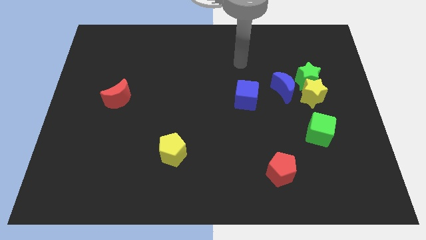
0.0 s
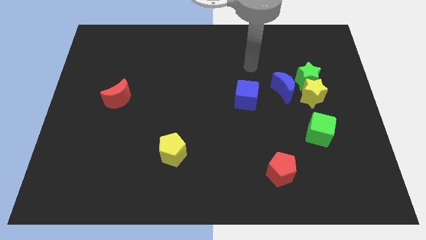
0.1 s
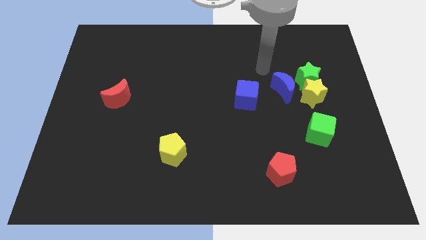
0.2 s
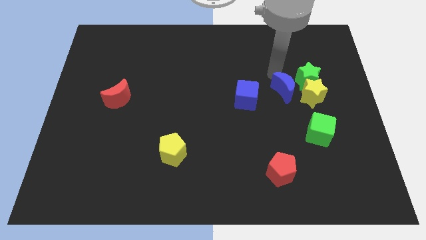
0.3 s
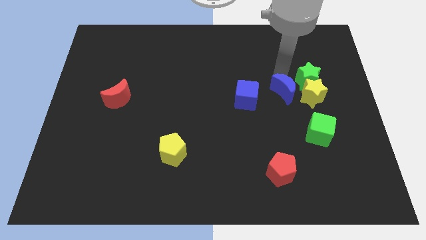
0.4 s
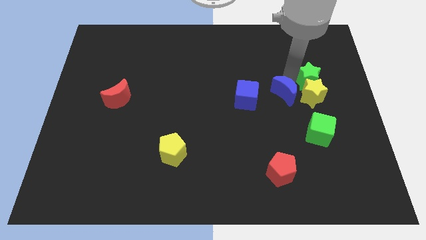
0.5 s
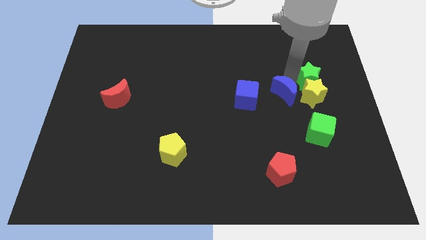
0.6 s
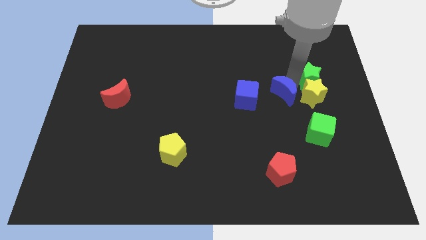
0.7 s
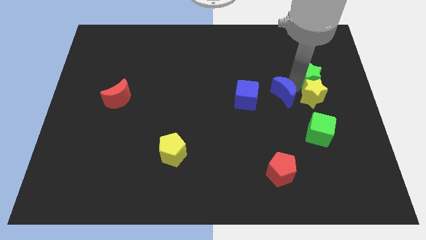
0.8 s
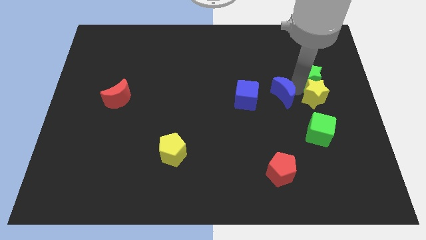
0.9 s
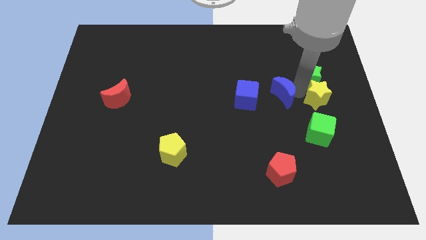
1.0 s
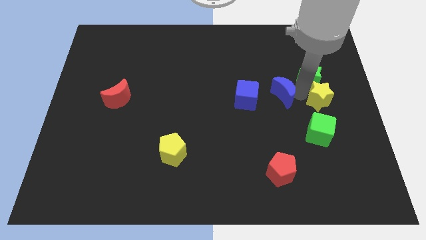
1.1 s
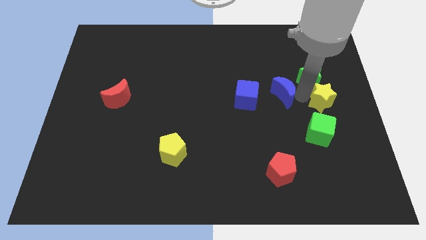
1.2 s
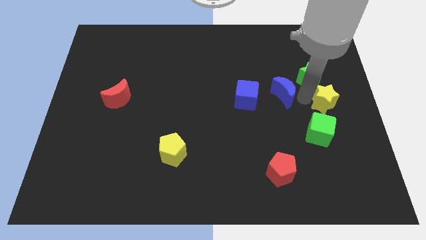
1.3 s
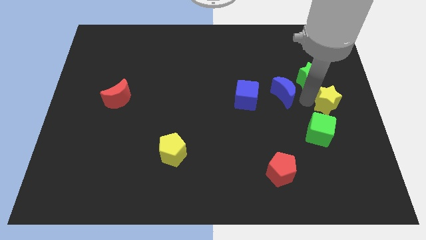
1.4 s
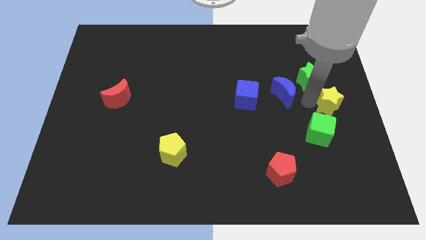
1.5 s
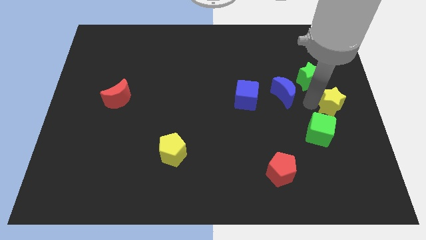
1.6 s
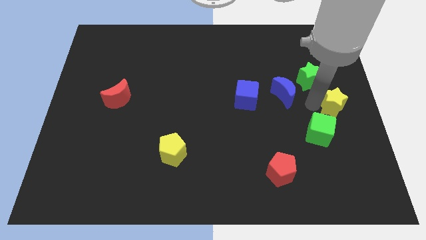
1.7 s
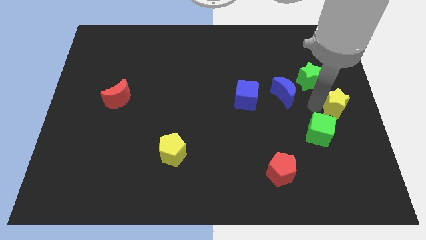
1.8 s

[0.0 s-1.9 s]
move the yellow star away from the green star and blue moon

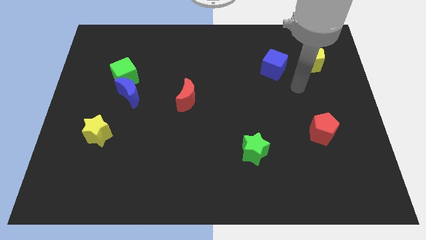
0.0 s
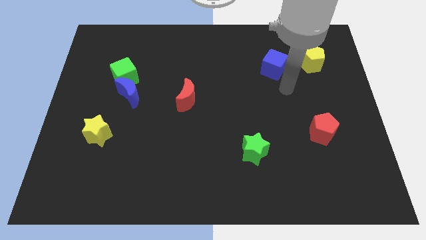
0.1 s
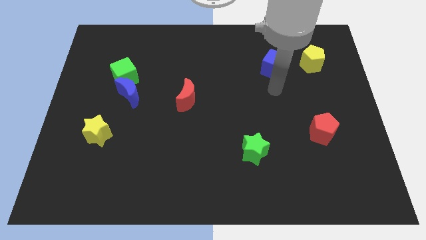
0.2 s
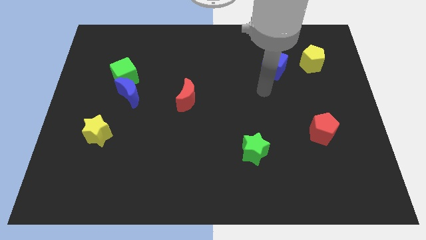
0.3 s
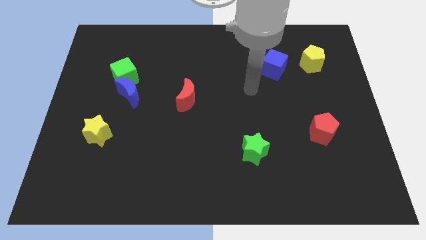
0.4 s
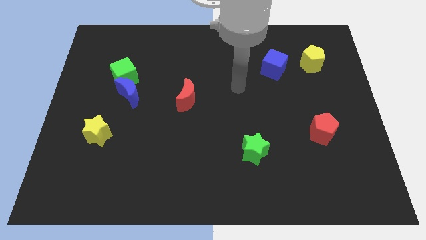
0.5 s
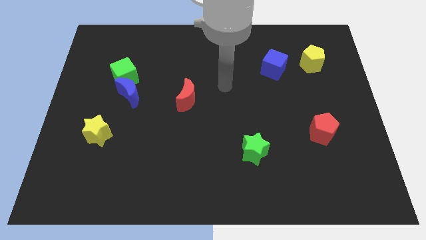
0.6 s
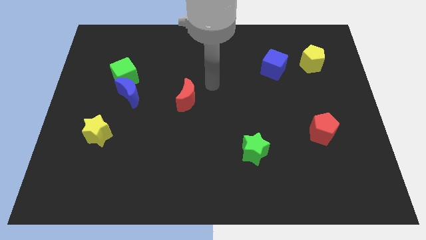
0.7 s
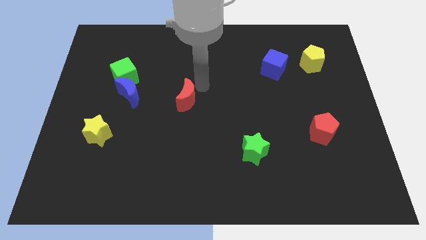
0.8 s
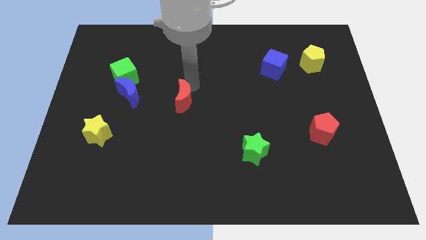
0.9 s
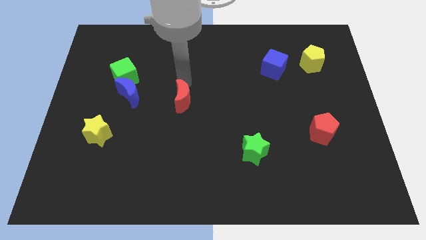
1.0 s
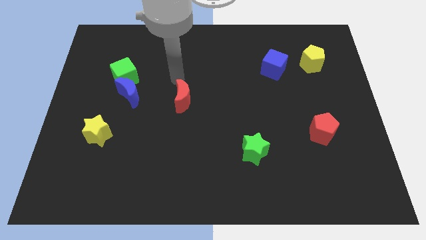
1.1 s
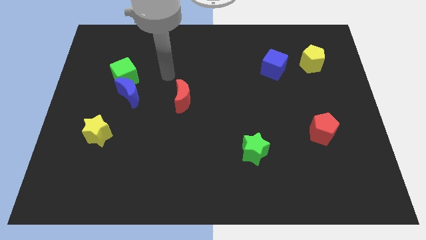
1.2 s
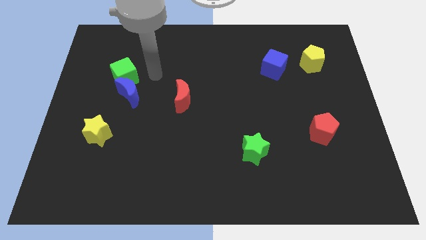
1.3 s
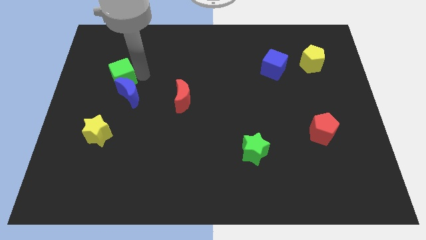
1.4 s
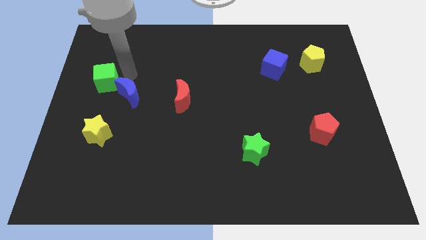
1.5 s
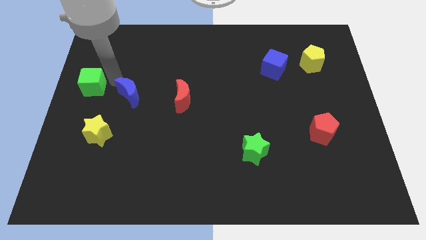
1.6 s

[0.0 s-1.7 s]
separate the blue moon from the green cube

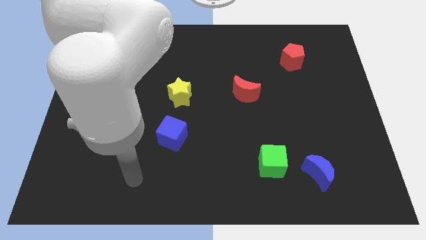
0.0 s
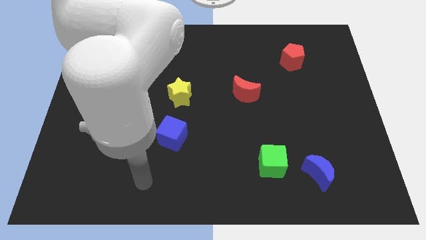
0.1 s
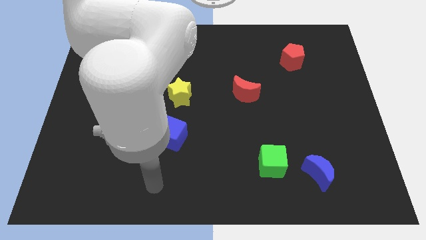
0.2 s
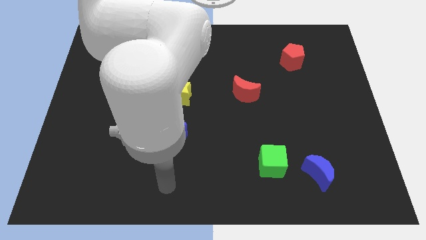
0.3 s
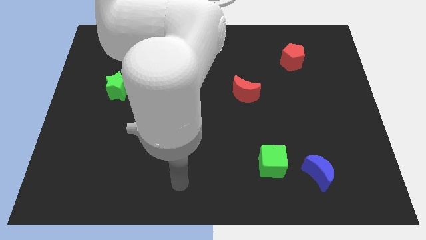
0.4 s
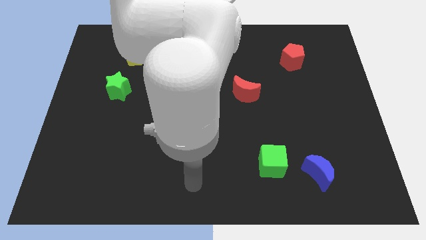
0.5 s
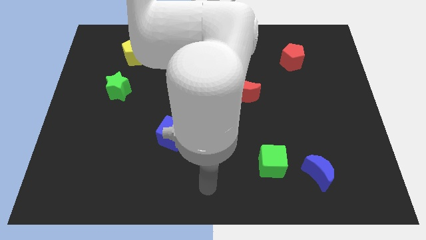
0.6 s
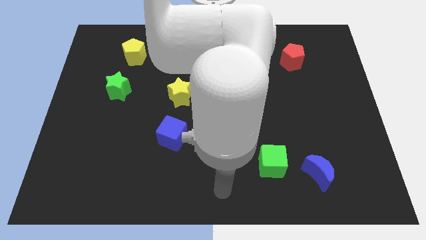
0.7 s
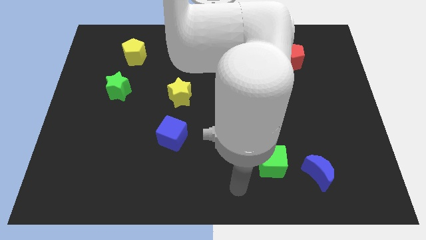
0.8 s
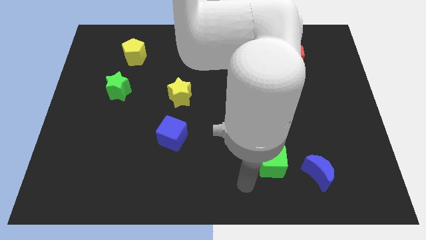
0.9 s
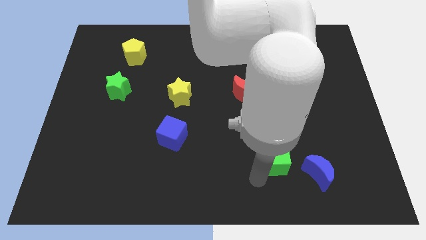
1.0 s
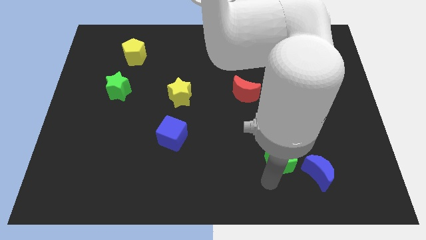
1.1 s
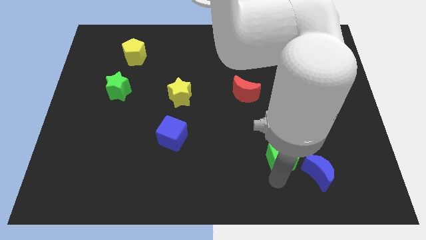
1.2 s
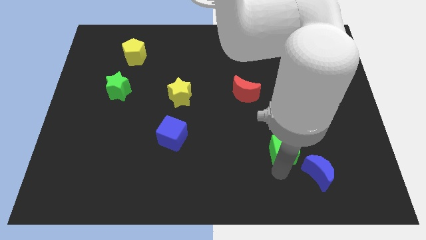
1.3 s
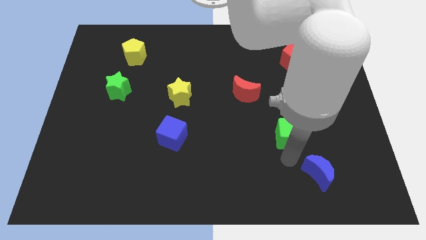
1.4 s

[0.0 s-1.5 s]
pull the blue moon apart from the green cube

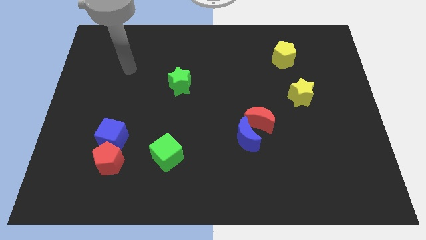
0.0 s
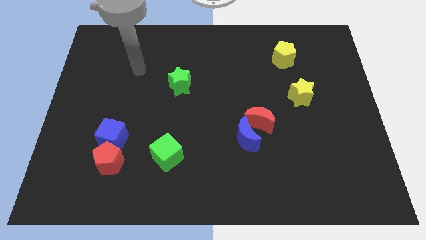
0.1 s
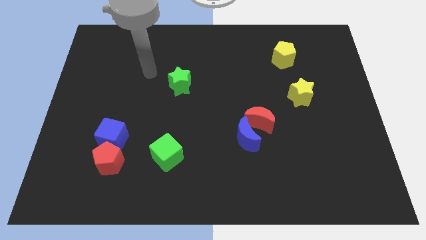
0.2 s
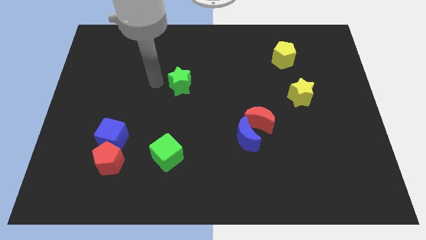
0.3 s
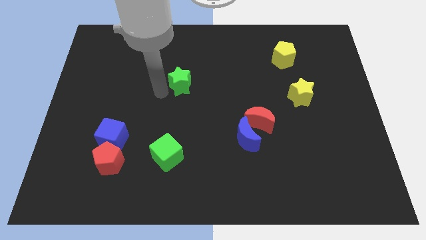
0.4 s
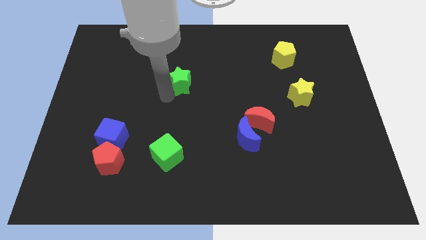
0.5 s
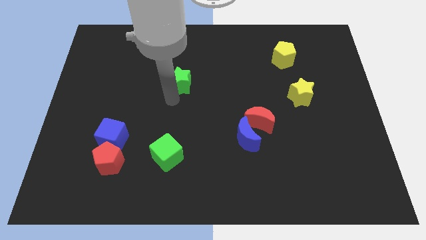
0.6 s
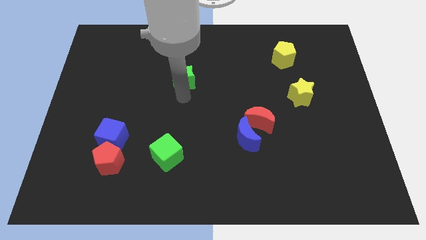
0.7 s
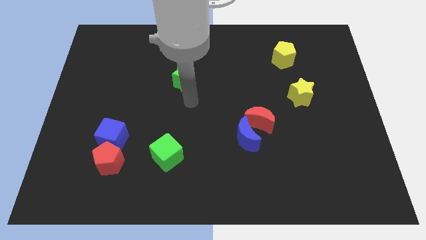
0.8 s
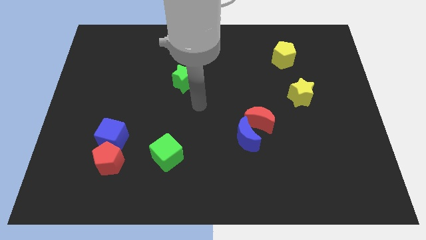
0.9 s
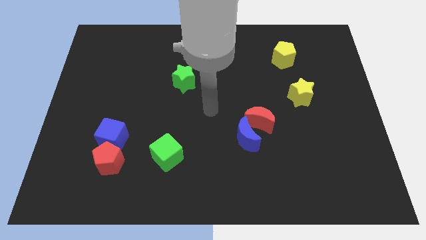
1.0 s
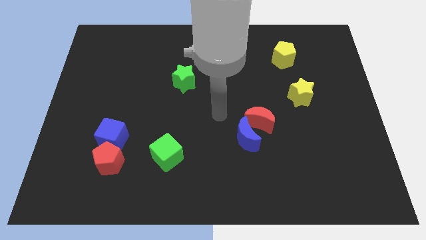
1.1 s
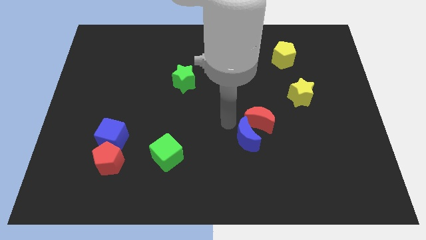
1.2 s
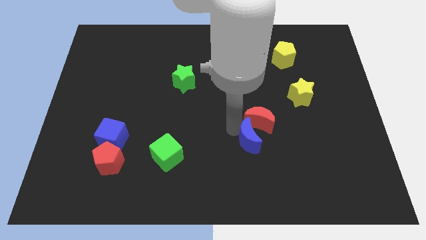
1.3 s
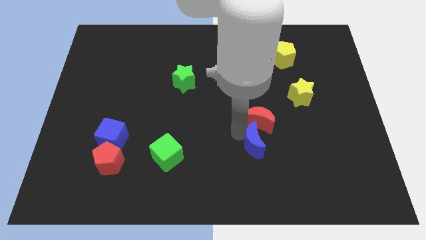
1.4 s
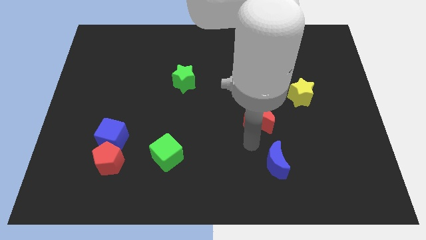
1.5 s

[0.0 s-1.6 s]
separate the red moon from the blue moon

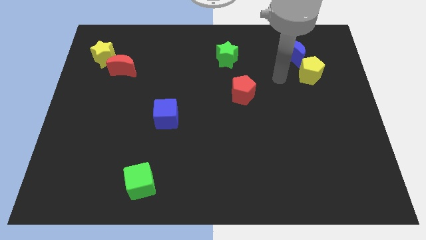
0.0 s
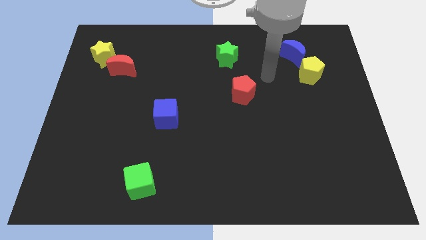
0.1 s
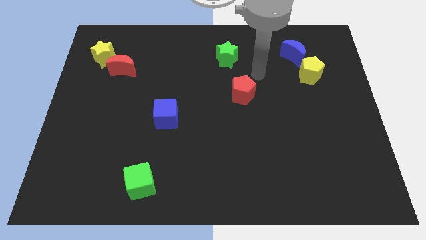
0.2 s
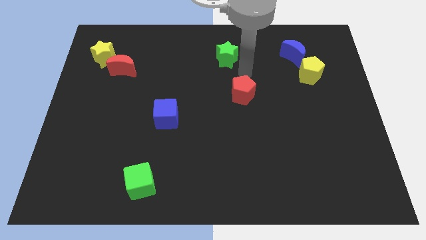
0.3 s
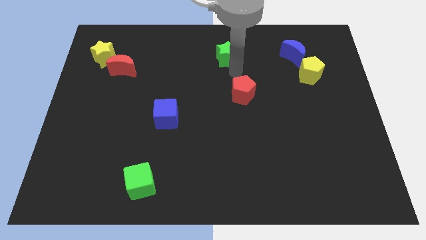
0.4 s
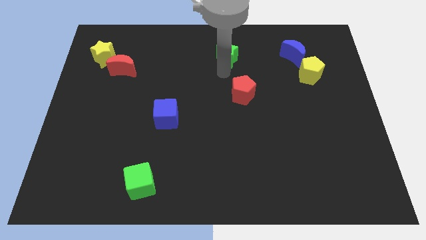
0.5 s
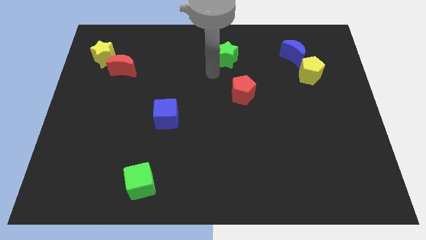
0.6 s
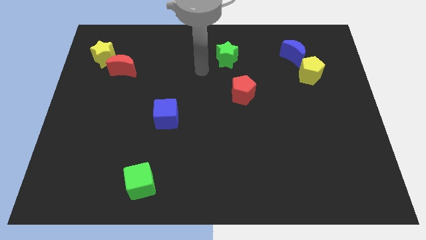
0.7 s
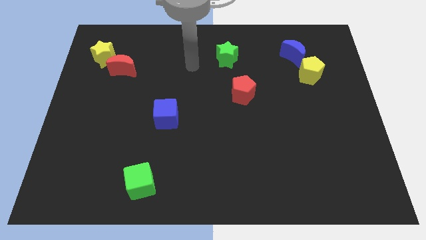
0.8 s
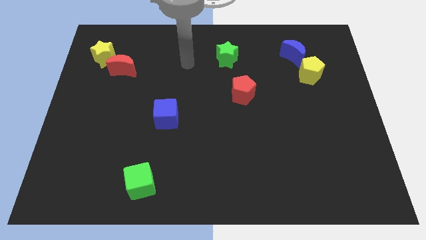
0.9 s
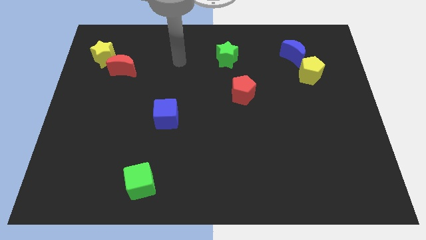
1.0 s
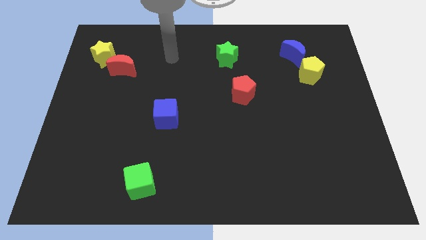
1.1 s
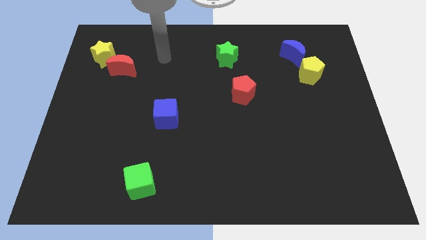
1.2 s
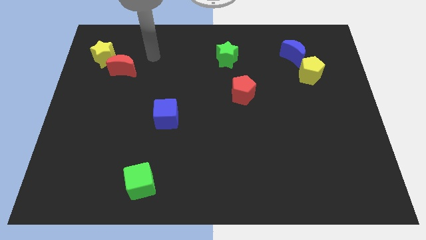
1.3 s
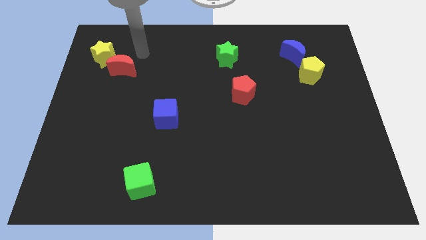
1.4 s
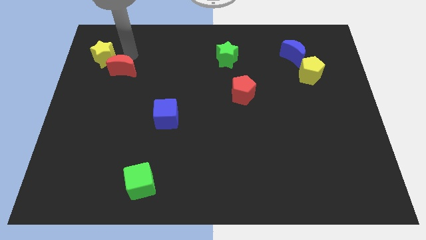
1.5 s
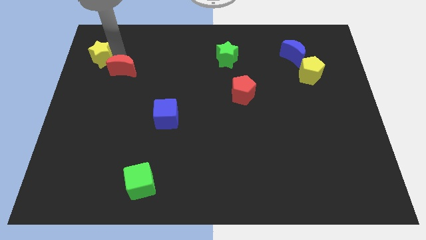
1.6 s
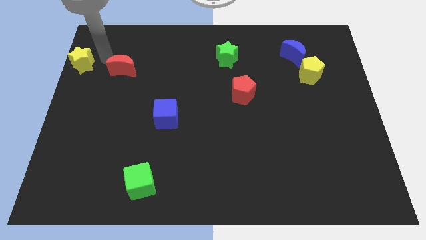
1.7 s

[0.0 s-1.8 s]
separate the red moon from the yellow star

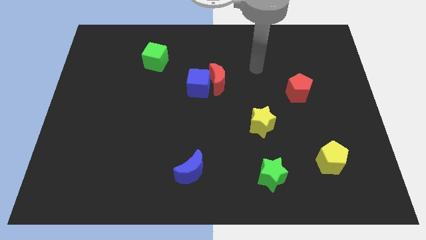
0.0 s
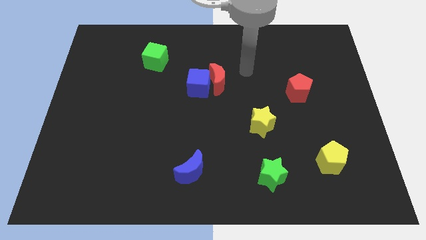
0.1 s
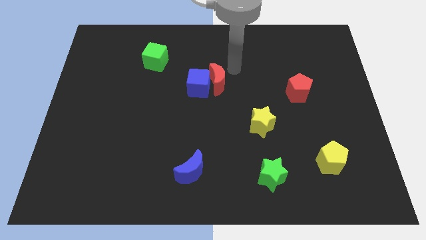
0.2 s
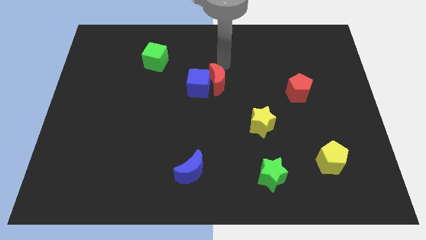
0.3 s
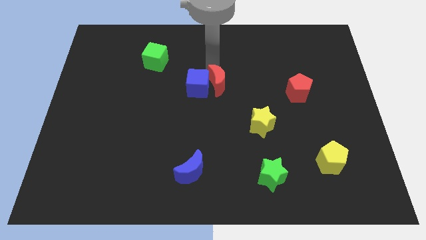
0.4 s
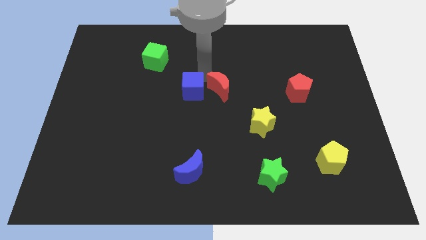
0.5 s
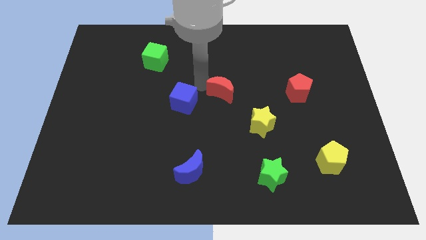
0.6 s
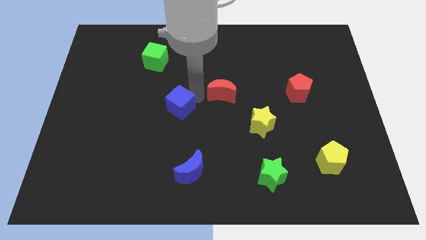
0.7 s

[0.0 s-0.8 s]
pull the red moon apart from the blue cube
